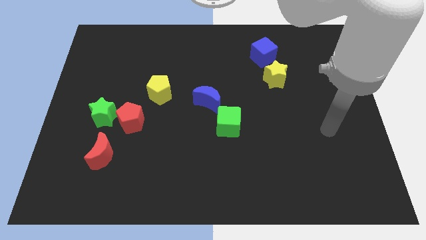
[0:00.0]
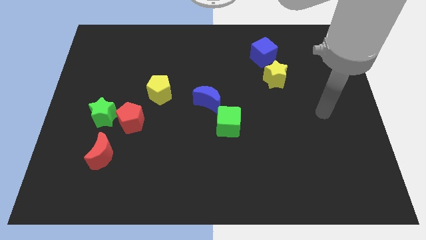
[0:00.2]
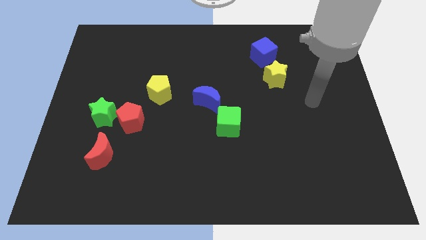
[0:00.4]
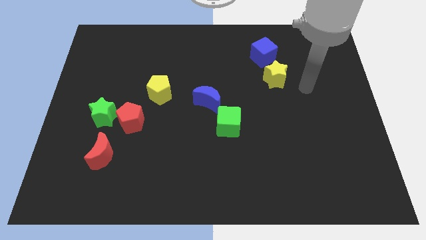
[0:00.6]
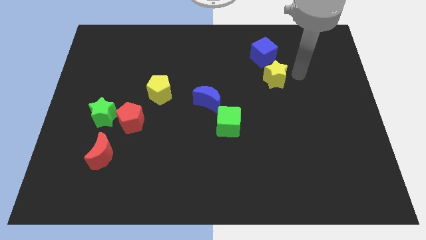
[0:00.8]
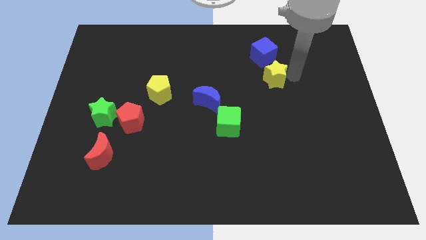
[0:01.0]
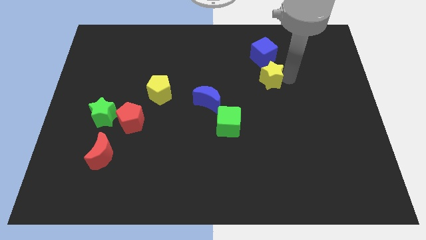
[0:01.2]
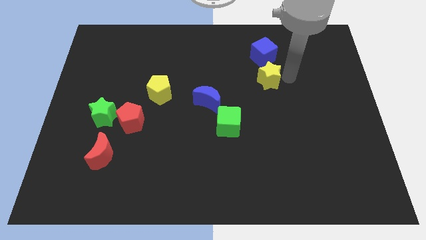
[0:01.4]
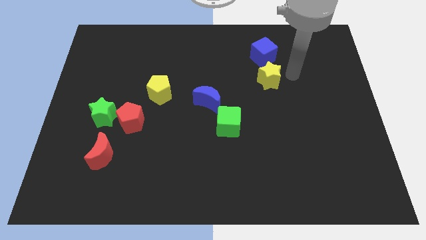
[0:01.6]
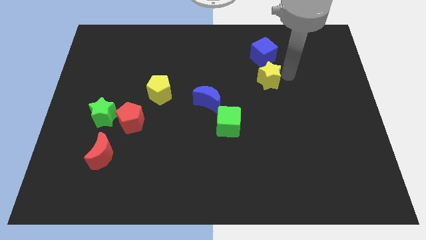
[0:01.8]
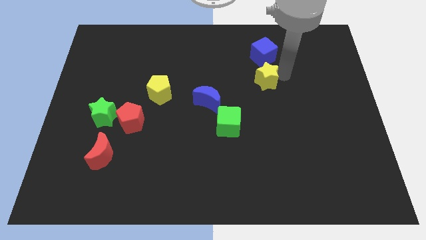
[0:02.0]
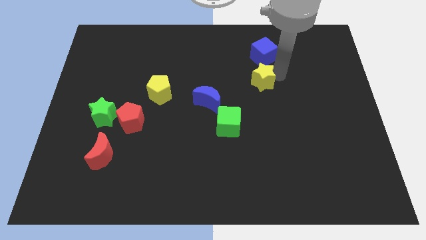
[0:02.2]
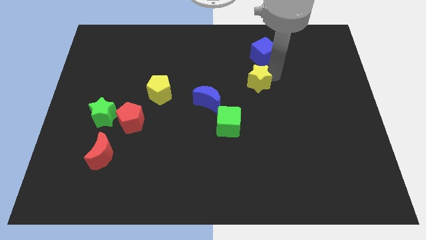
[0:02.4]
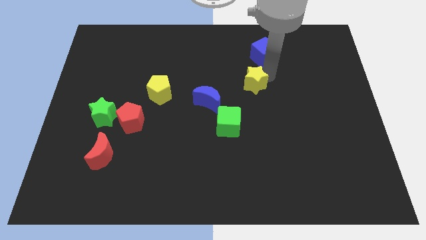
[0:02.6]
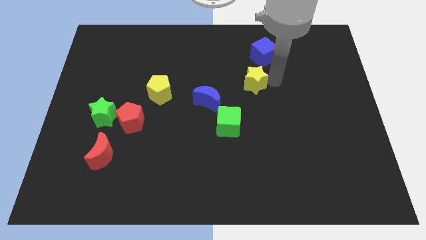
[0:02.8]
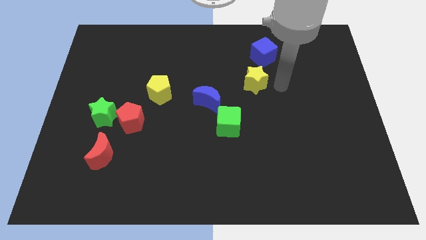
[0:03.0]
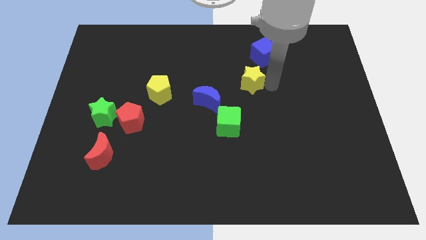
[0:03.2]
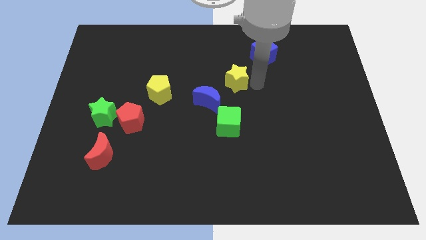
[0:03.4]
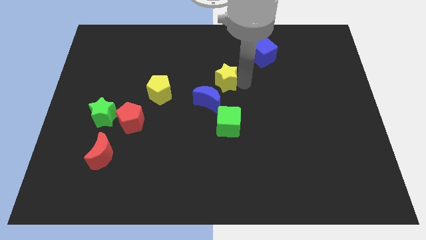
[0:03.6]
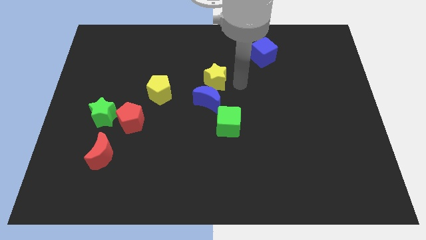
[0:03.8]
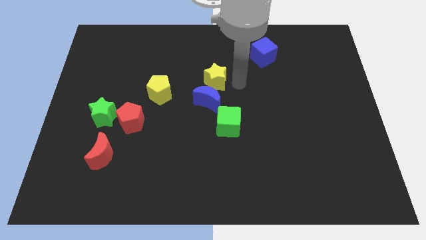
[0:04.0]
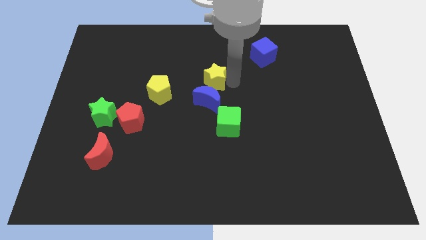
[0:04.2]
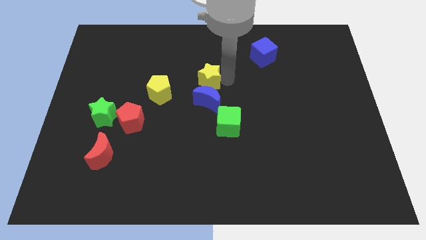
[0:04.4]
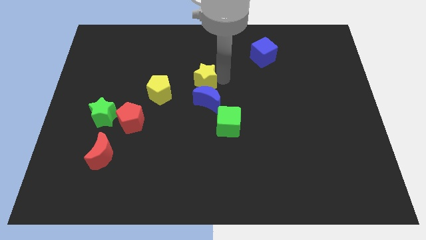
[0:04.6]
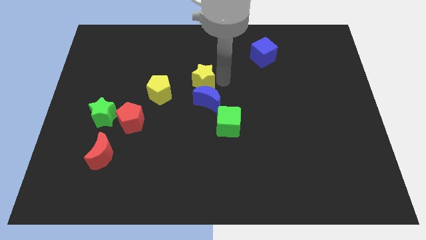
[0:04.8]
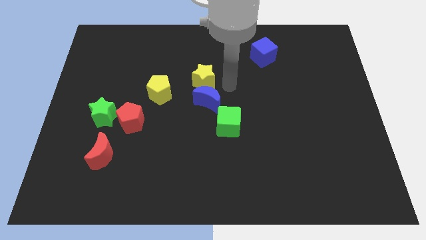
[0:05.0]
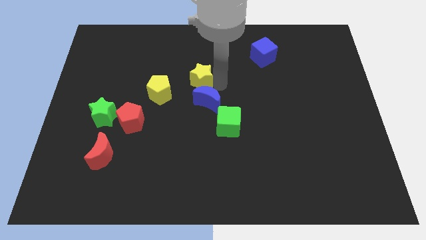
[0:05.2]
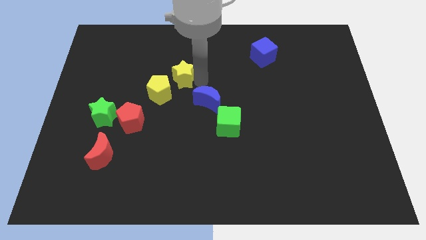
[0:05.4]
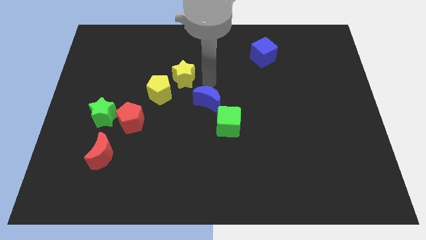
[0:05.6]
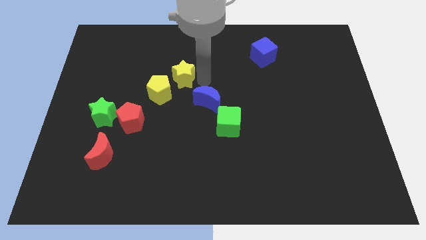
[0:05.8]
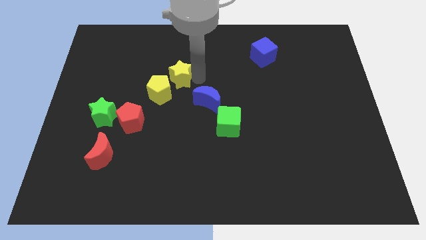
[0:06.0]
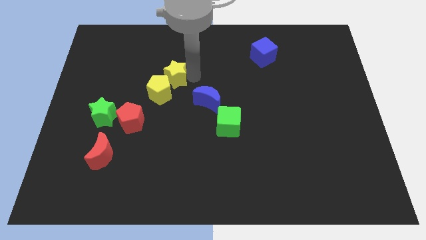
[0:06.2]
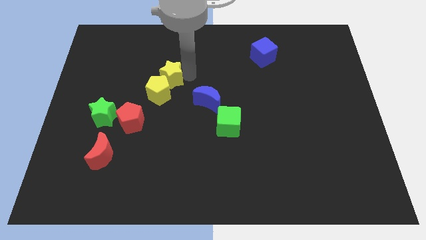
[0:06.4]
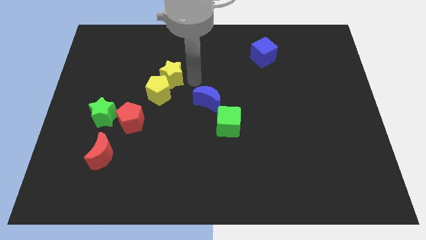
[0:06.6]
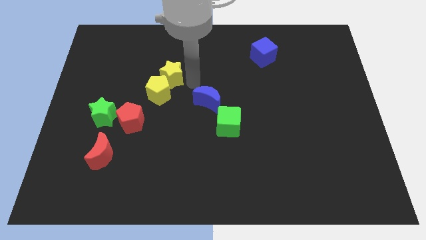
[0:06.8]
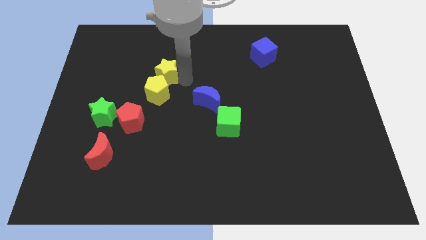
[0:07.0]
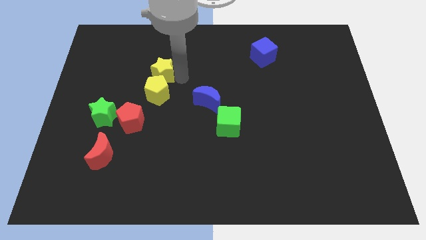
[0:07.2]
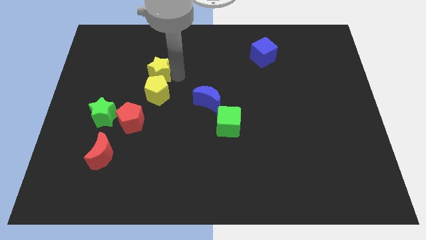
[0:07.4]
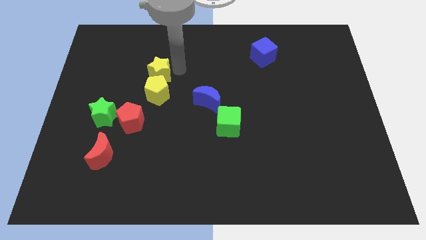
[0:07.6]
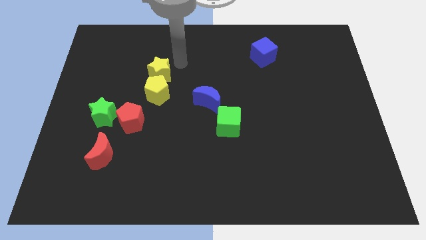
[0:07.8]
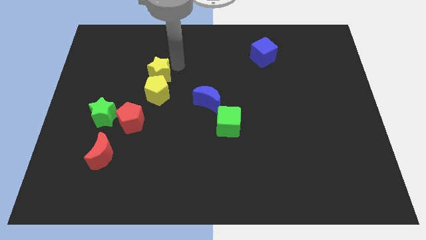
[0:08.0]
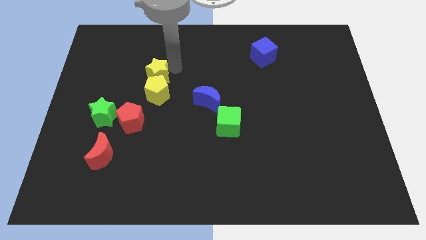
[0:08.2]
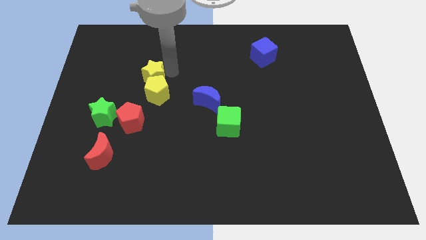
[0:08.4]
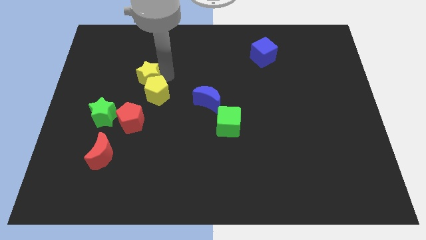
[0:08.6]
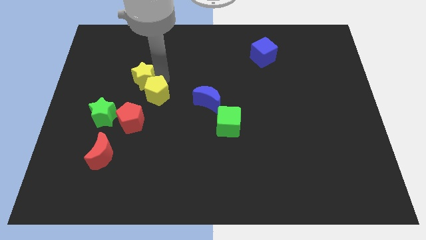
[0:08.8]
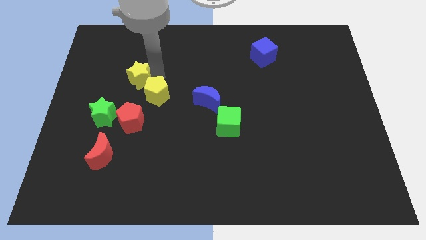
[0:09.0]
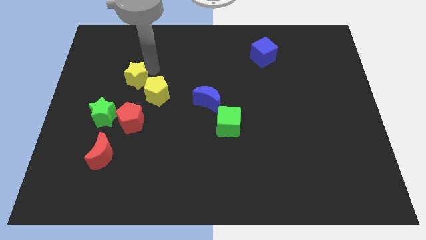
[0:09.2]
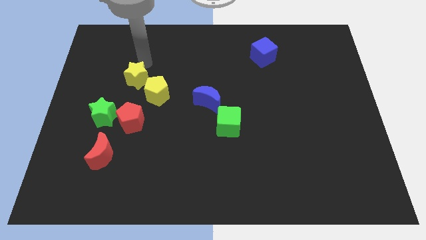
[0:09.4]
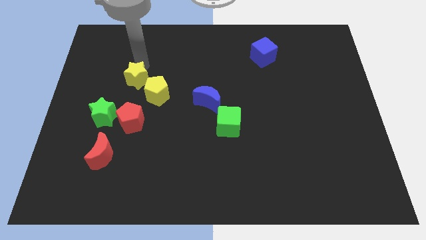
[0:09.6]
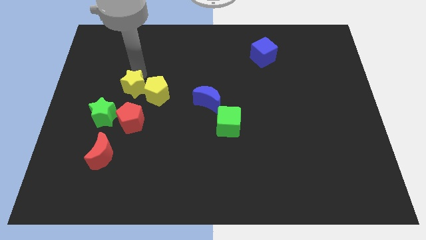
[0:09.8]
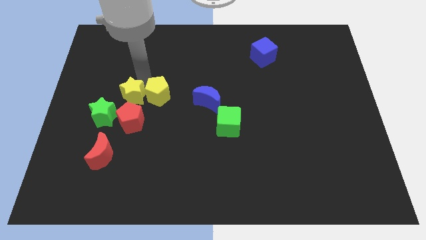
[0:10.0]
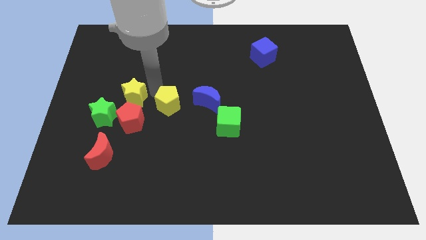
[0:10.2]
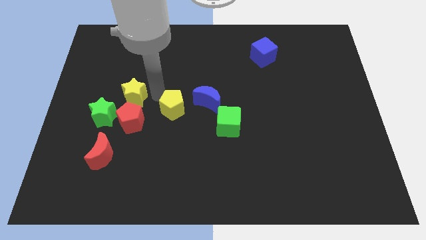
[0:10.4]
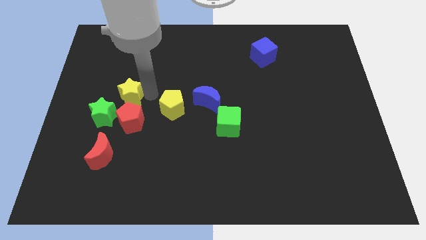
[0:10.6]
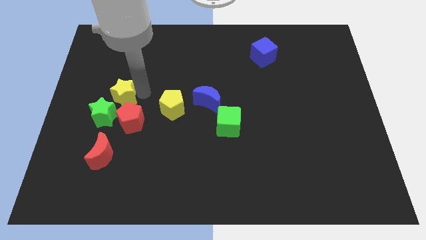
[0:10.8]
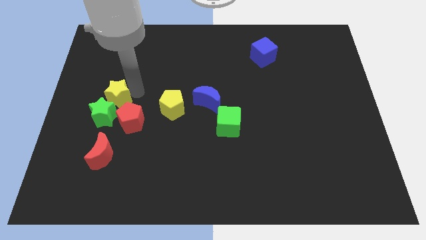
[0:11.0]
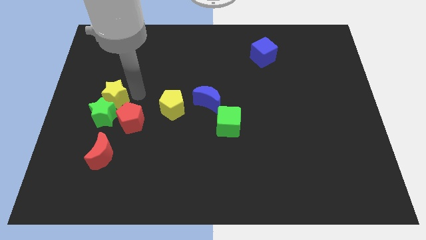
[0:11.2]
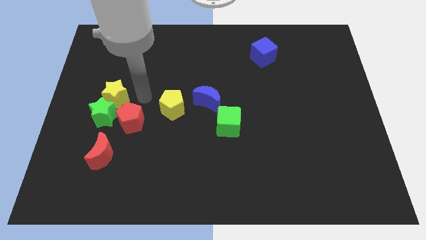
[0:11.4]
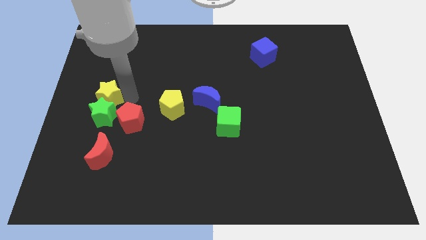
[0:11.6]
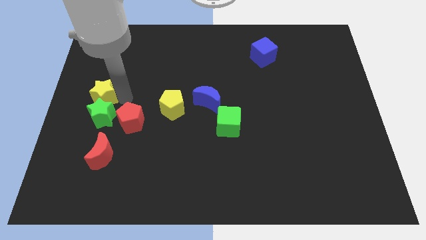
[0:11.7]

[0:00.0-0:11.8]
put the yellow star to the left side

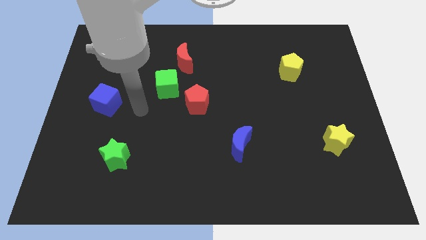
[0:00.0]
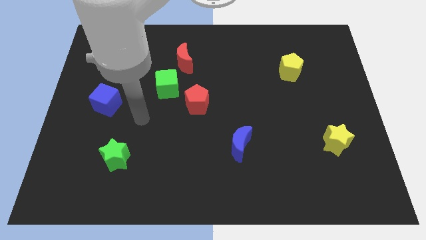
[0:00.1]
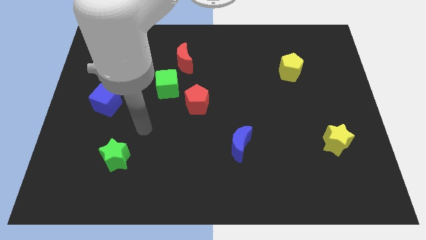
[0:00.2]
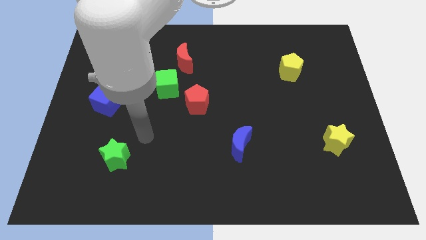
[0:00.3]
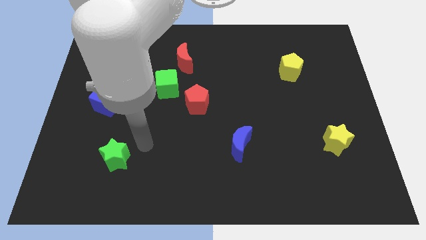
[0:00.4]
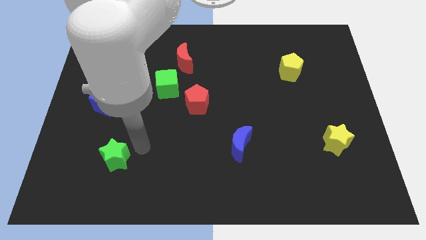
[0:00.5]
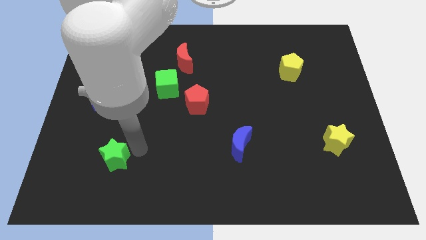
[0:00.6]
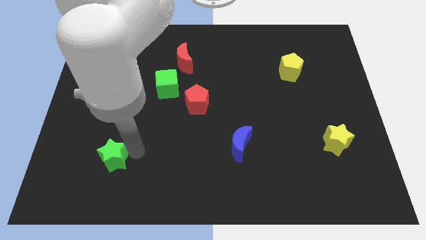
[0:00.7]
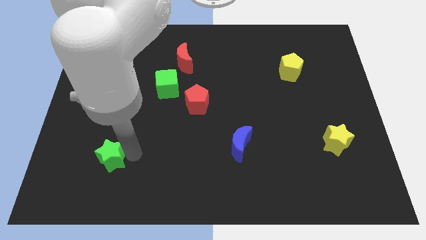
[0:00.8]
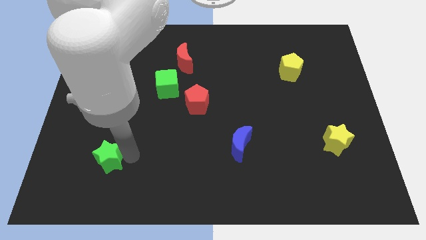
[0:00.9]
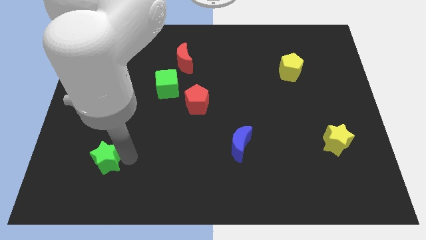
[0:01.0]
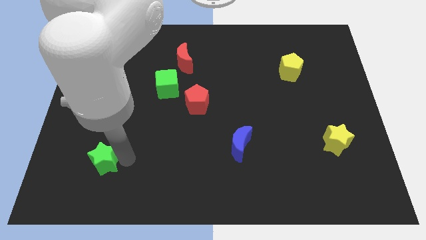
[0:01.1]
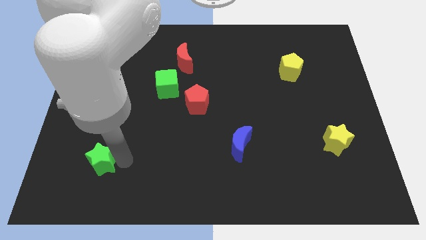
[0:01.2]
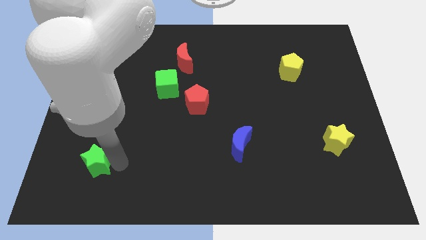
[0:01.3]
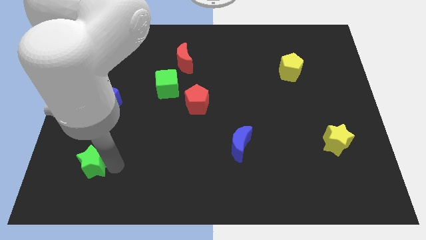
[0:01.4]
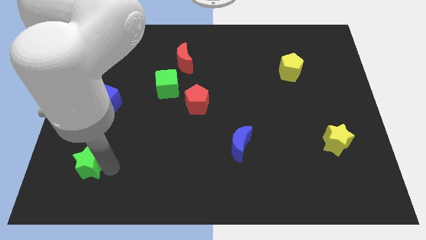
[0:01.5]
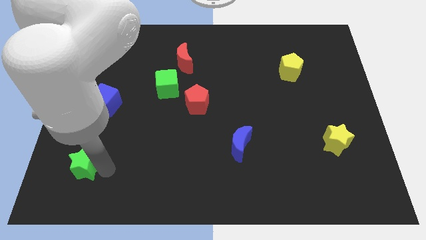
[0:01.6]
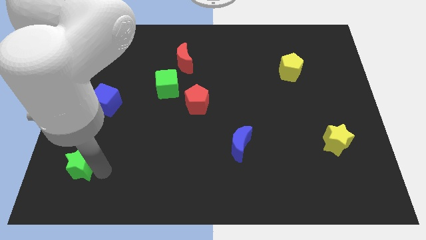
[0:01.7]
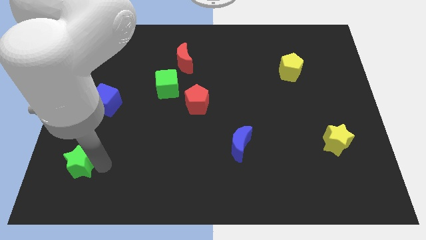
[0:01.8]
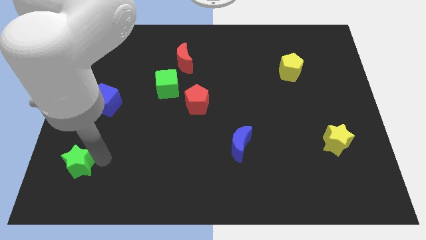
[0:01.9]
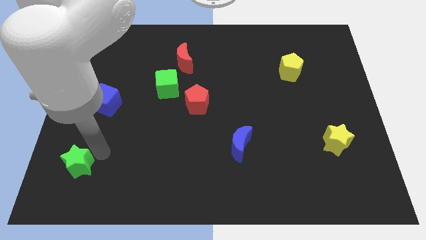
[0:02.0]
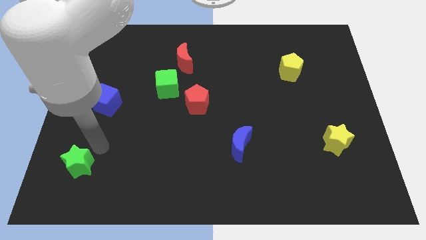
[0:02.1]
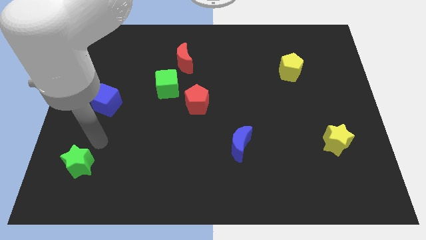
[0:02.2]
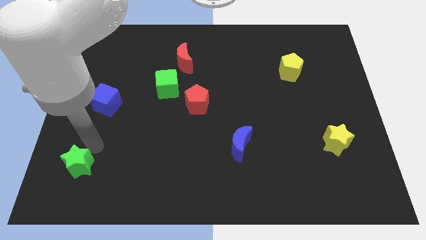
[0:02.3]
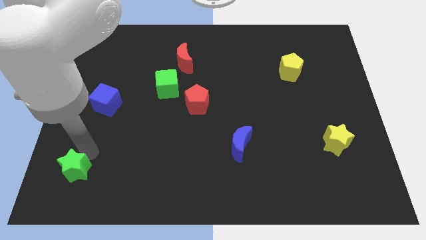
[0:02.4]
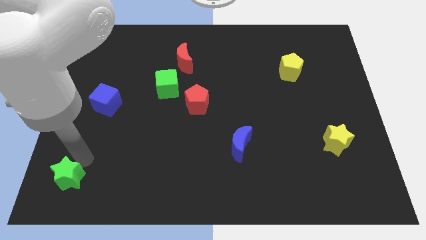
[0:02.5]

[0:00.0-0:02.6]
put the green star to the lower left corner
